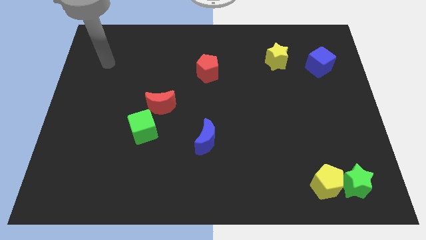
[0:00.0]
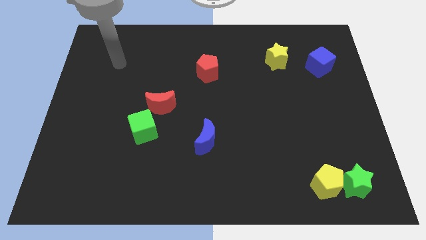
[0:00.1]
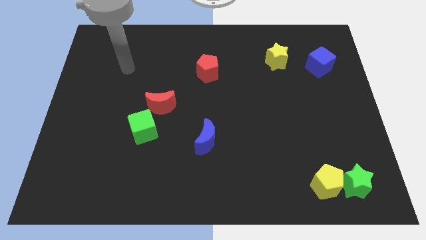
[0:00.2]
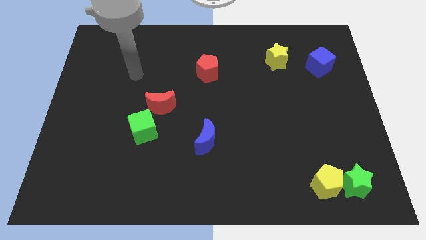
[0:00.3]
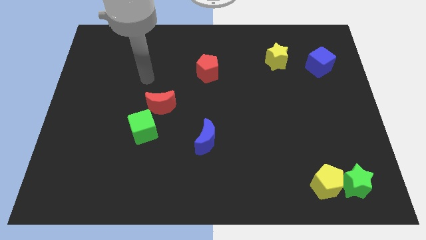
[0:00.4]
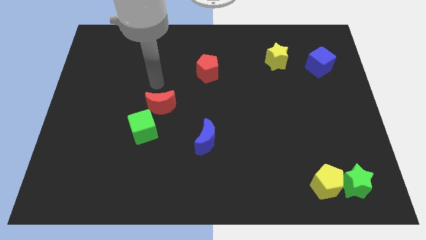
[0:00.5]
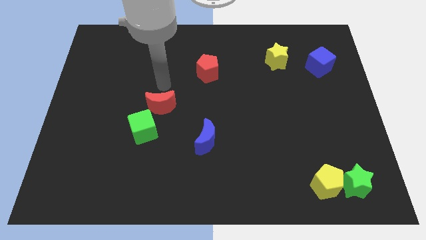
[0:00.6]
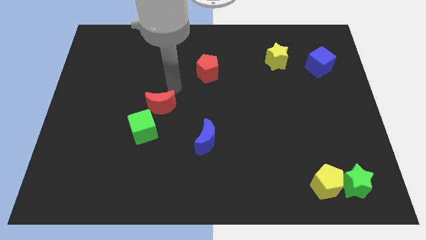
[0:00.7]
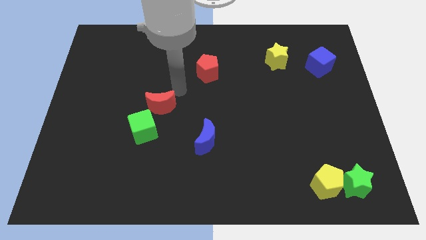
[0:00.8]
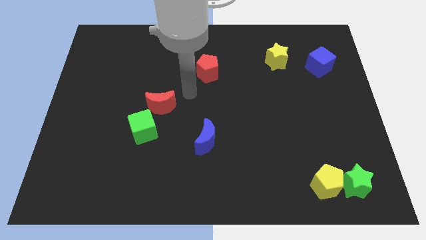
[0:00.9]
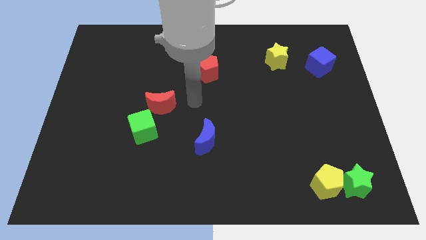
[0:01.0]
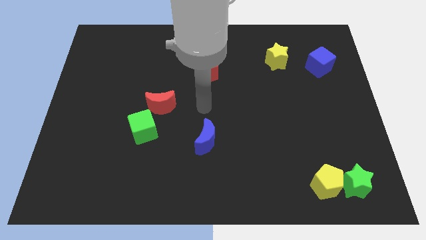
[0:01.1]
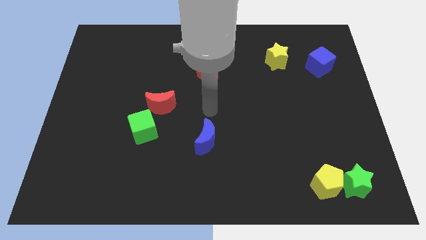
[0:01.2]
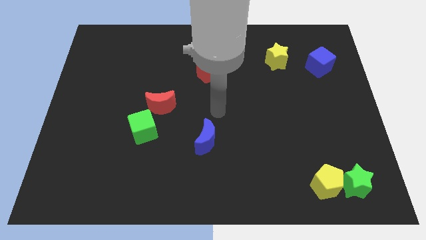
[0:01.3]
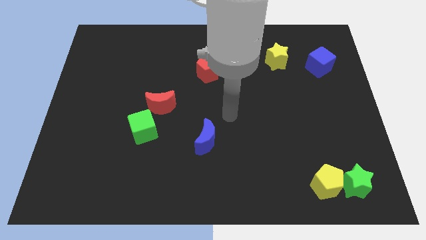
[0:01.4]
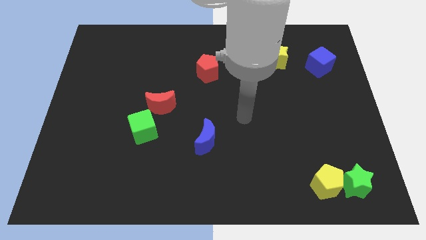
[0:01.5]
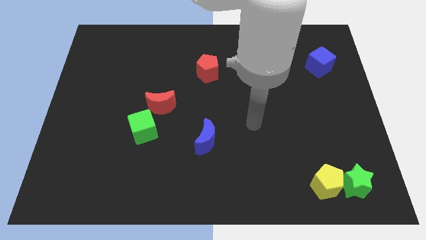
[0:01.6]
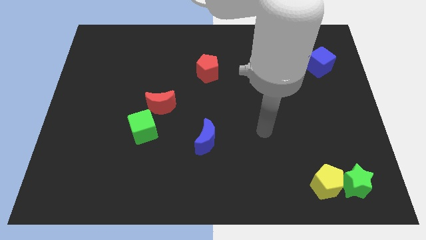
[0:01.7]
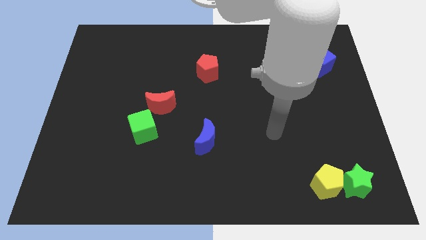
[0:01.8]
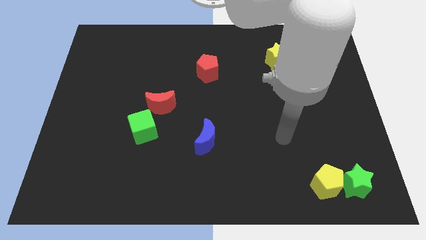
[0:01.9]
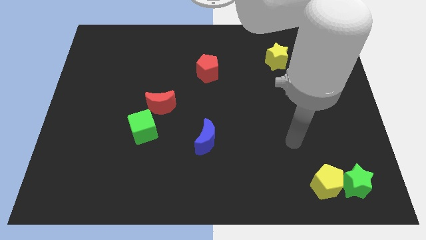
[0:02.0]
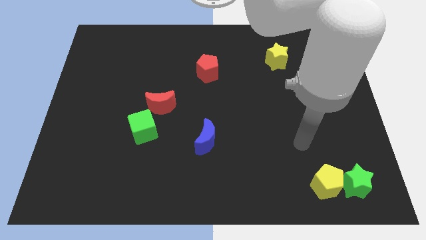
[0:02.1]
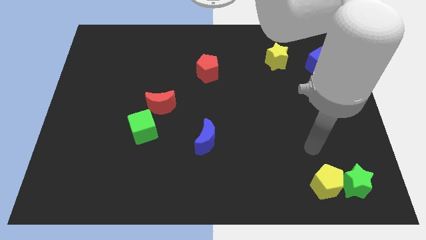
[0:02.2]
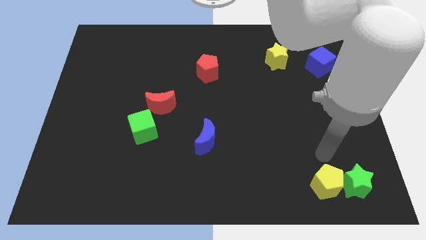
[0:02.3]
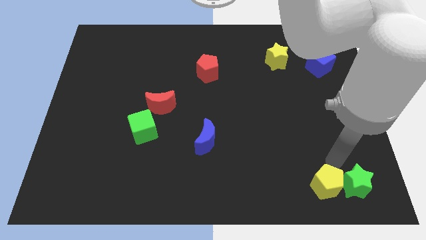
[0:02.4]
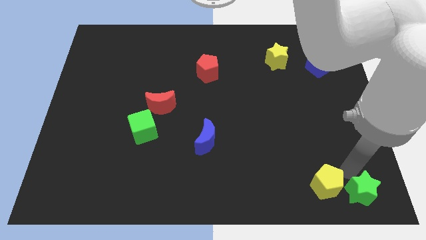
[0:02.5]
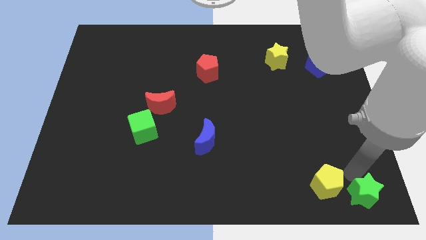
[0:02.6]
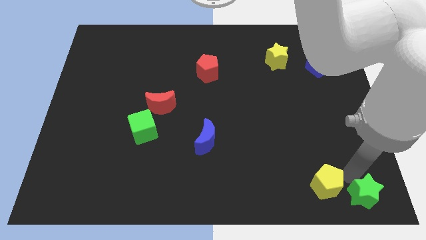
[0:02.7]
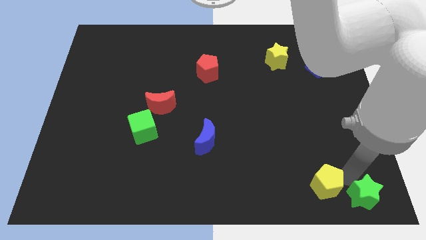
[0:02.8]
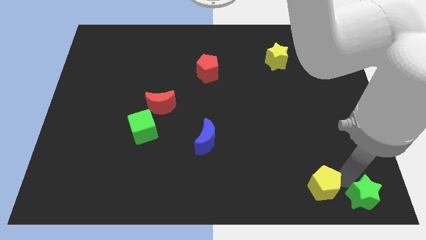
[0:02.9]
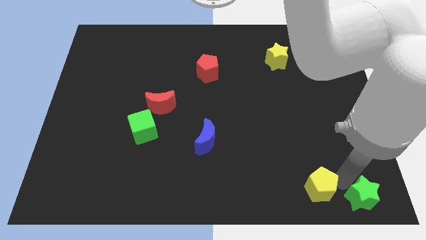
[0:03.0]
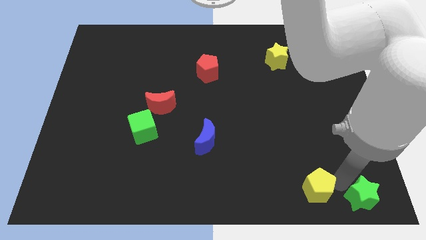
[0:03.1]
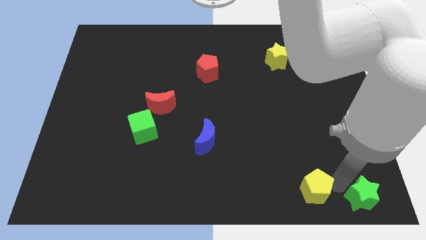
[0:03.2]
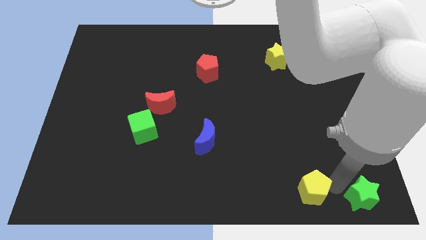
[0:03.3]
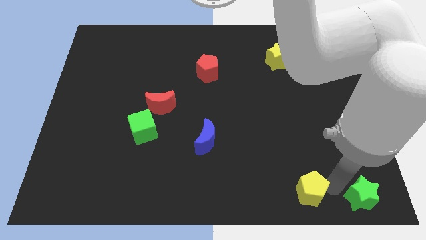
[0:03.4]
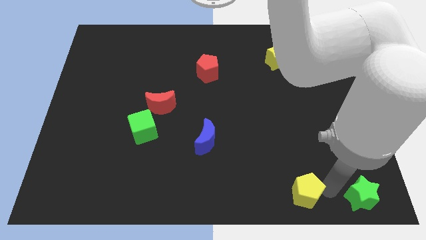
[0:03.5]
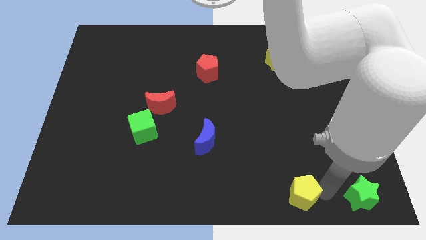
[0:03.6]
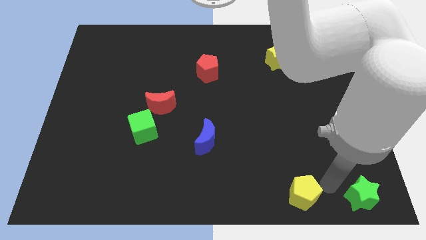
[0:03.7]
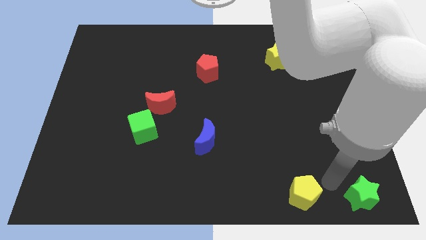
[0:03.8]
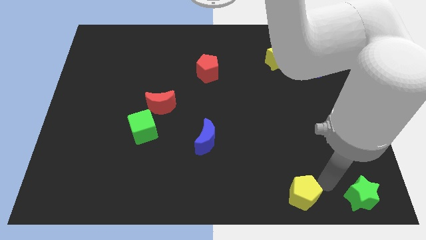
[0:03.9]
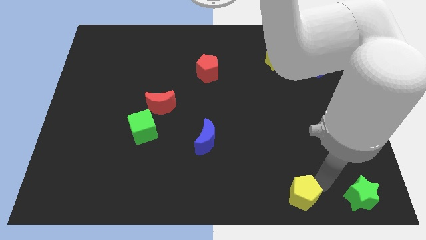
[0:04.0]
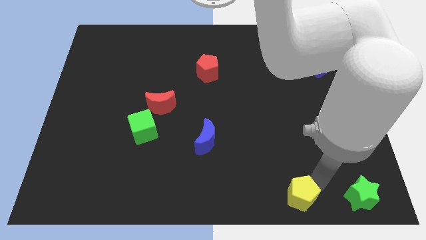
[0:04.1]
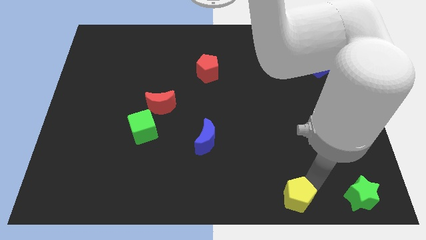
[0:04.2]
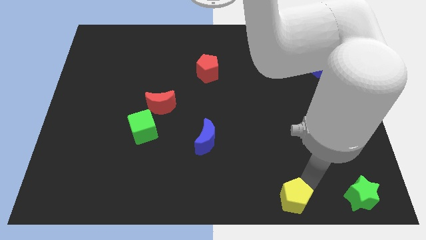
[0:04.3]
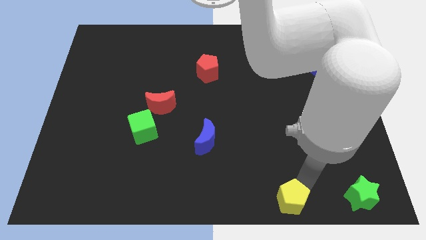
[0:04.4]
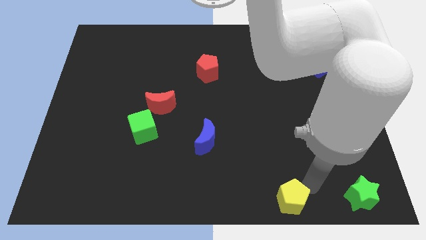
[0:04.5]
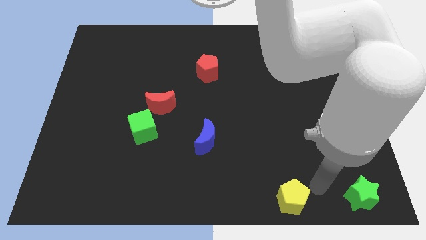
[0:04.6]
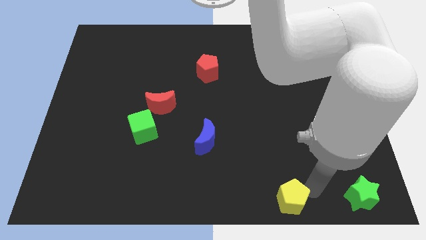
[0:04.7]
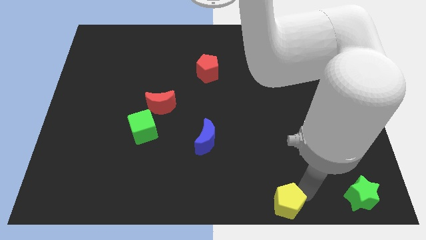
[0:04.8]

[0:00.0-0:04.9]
slide the yellow pentagon to the bottom

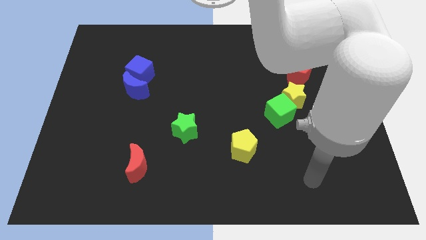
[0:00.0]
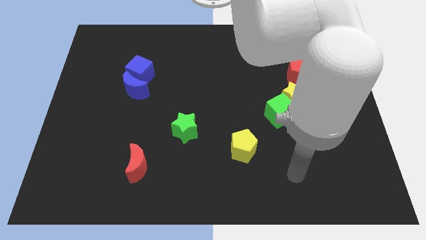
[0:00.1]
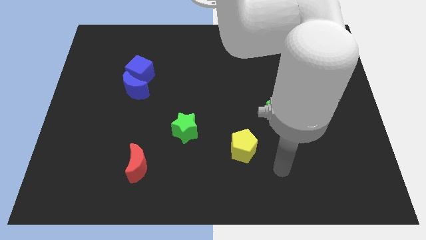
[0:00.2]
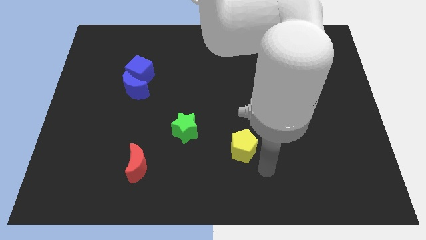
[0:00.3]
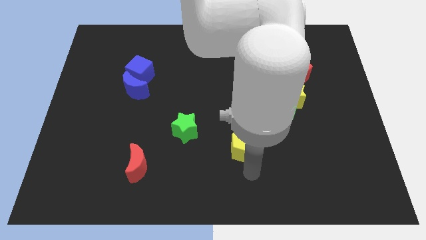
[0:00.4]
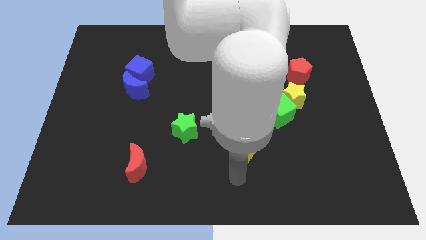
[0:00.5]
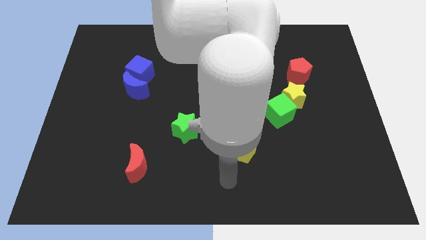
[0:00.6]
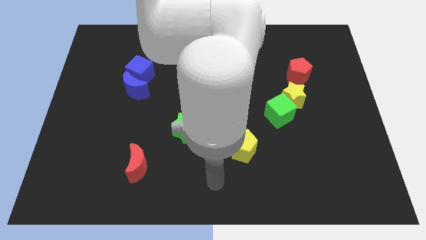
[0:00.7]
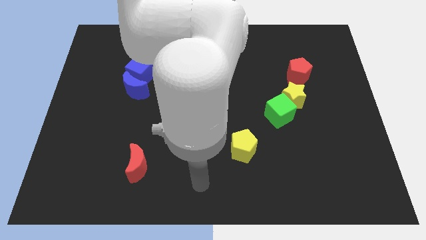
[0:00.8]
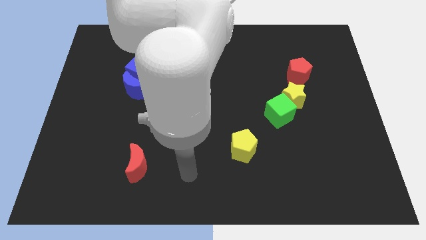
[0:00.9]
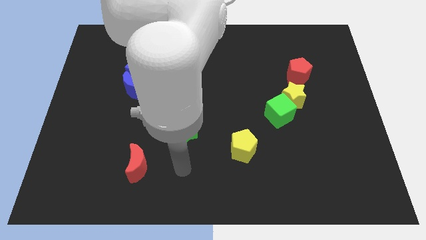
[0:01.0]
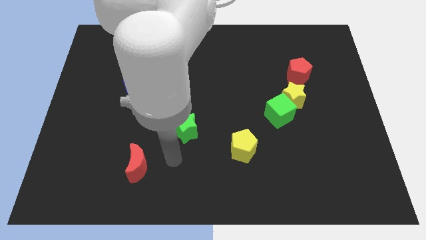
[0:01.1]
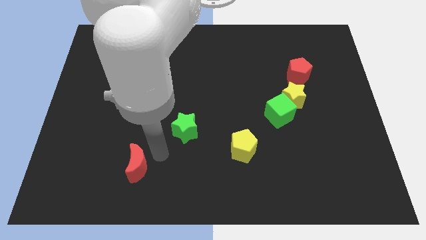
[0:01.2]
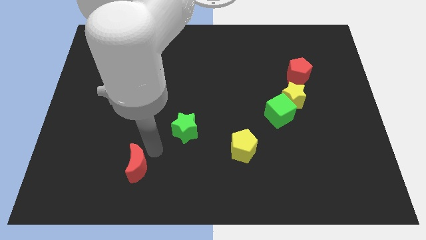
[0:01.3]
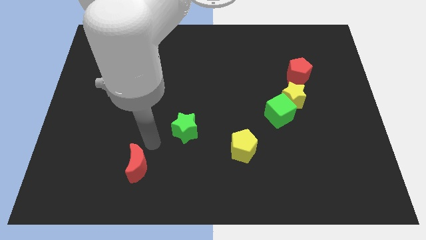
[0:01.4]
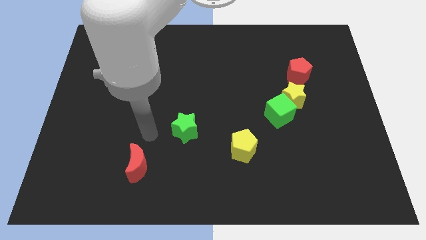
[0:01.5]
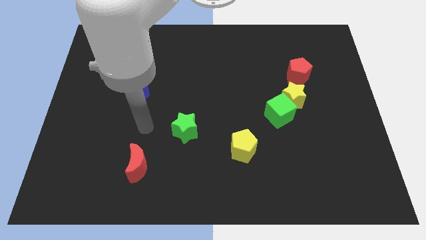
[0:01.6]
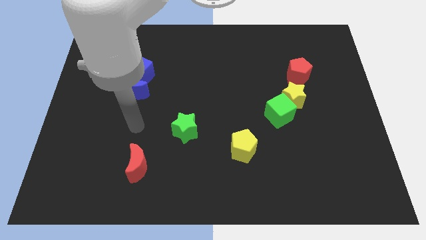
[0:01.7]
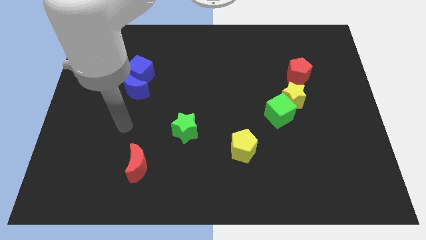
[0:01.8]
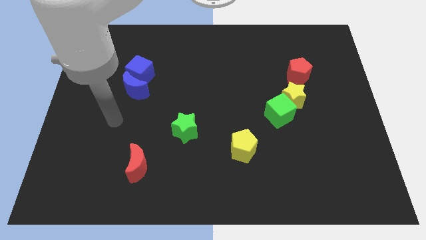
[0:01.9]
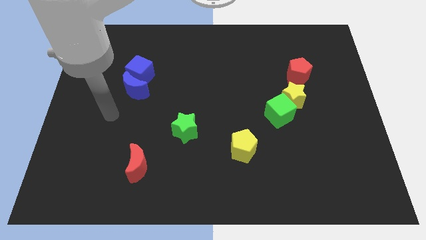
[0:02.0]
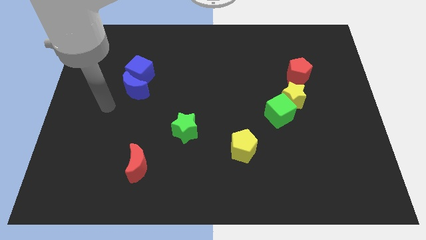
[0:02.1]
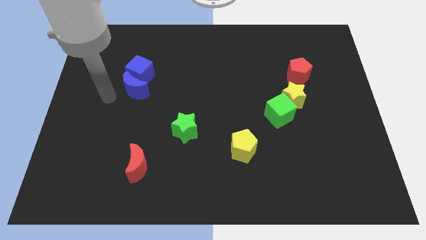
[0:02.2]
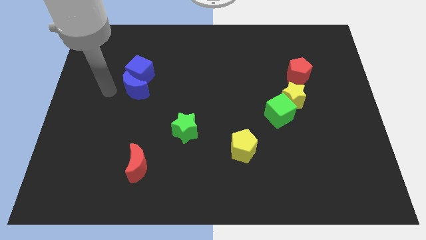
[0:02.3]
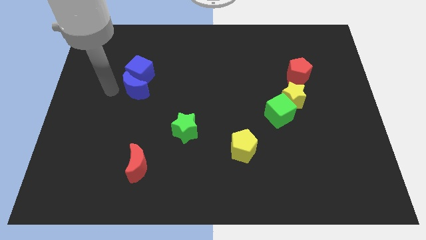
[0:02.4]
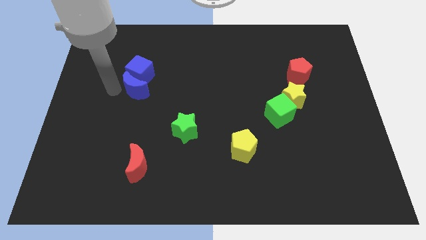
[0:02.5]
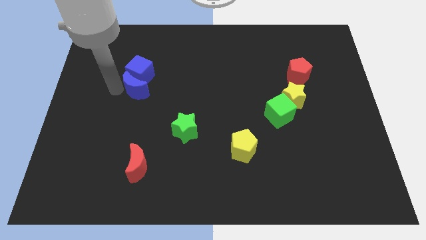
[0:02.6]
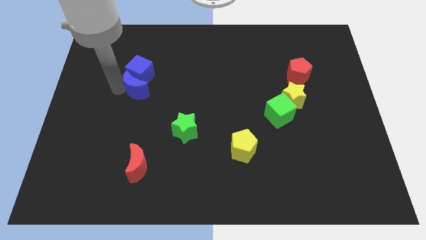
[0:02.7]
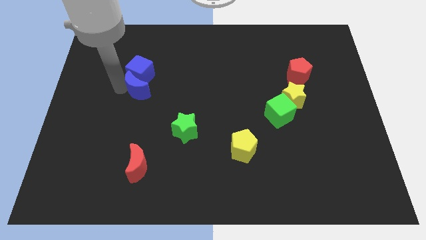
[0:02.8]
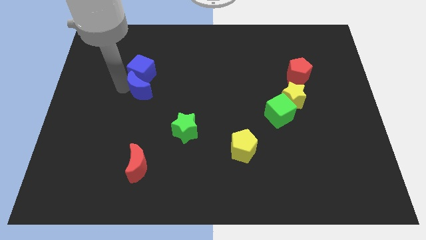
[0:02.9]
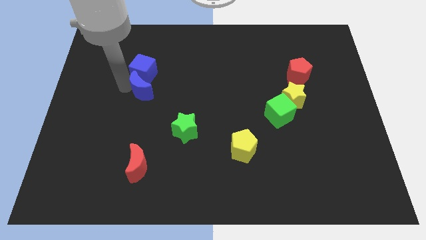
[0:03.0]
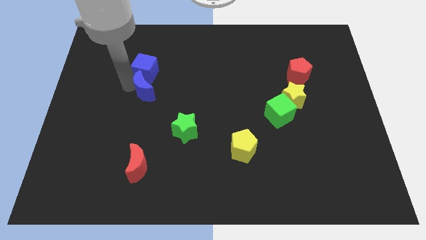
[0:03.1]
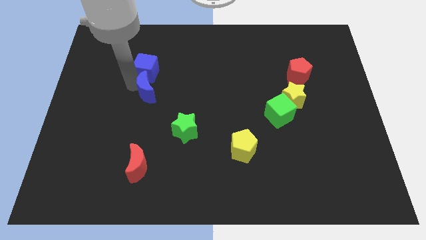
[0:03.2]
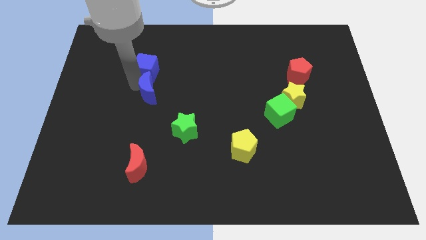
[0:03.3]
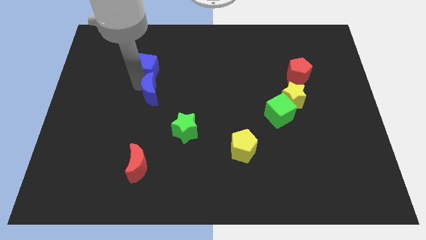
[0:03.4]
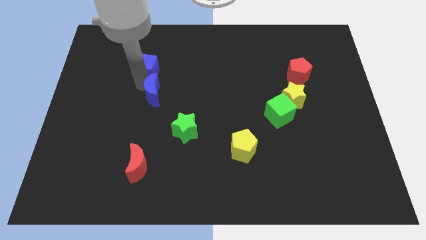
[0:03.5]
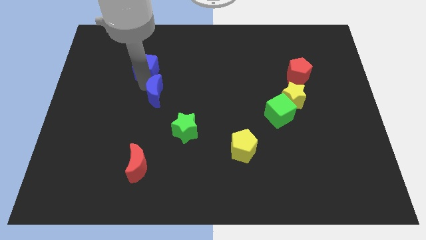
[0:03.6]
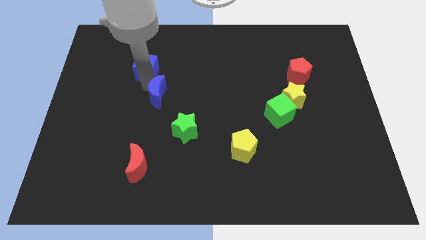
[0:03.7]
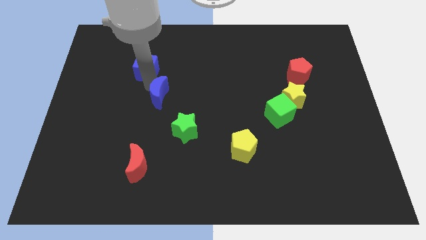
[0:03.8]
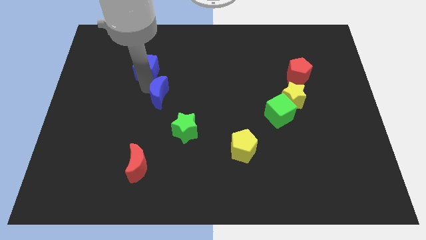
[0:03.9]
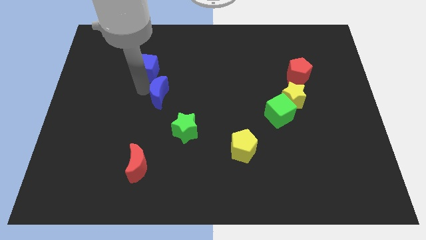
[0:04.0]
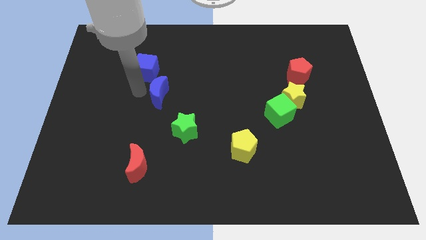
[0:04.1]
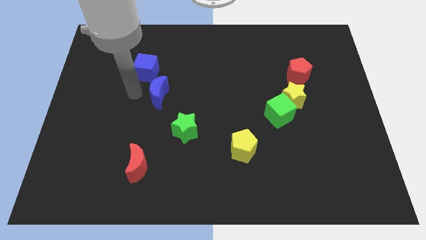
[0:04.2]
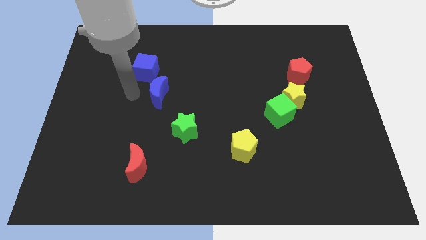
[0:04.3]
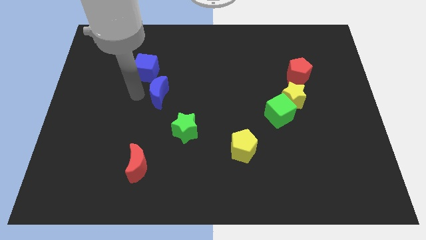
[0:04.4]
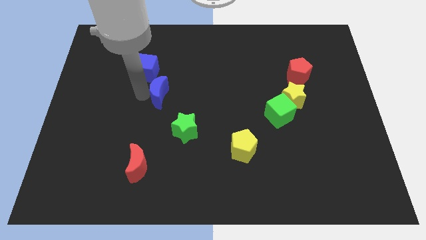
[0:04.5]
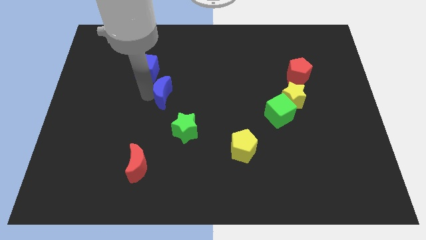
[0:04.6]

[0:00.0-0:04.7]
move the blue moon to the middle of the board
